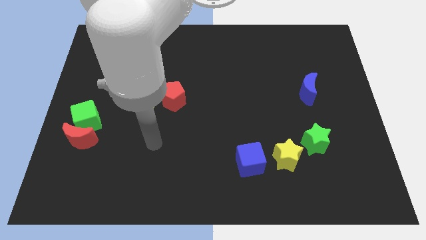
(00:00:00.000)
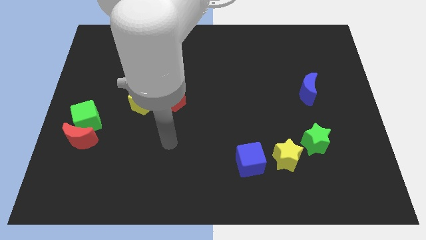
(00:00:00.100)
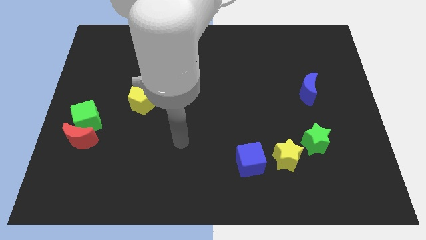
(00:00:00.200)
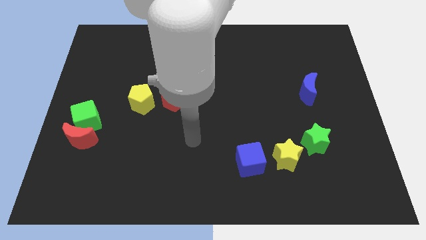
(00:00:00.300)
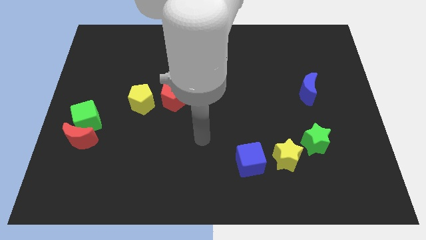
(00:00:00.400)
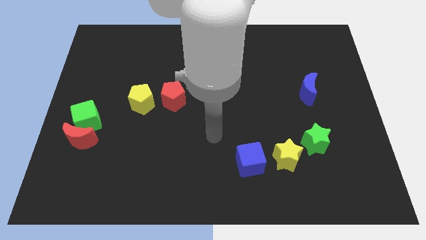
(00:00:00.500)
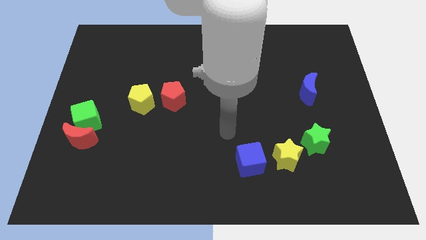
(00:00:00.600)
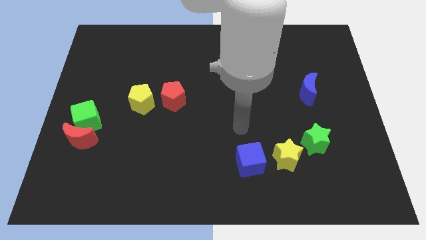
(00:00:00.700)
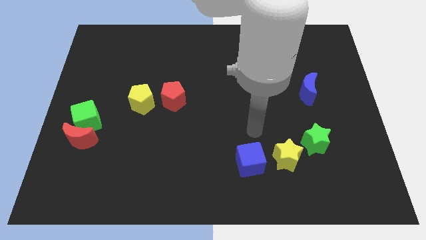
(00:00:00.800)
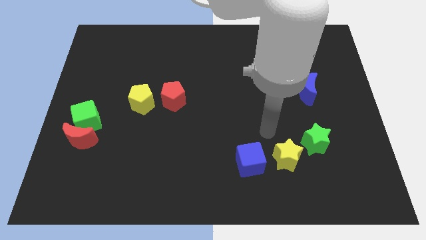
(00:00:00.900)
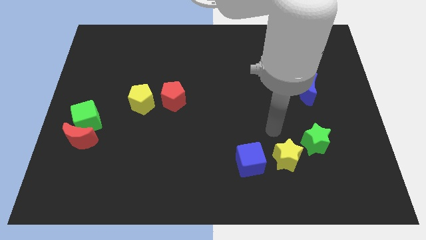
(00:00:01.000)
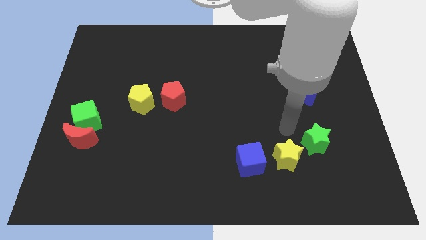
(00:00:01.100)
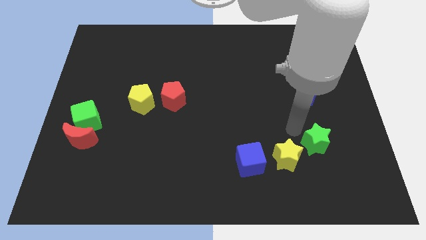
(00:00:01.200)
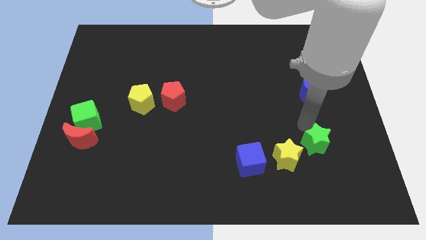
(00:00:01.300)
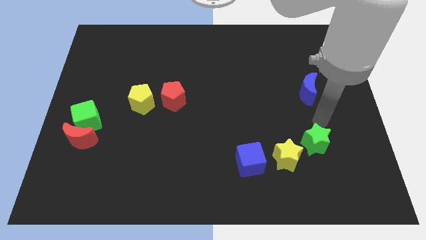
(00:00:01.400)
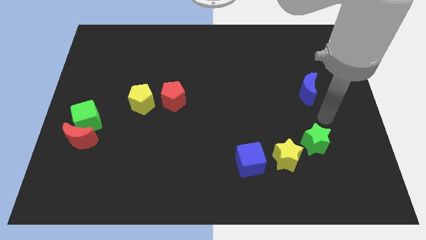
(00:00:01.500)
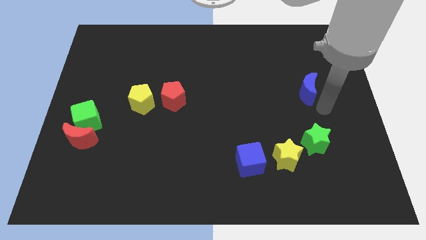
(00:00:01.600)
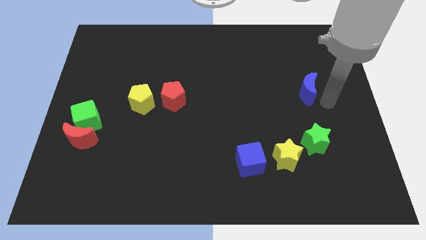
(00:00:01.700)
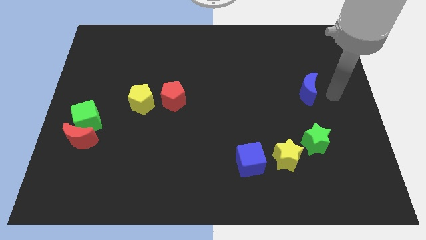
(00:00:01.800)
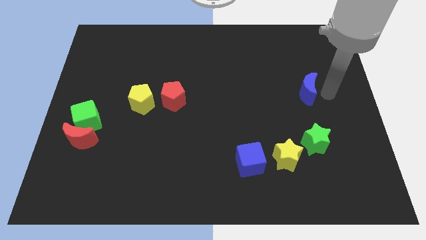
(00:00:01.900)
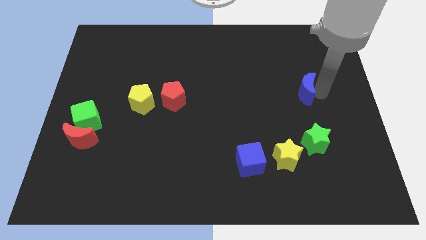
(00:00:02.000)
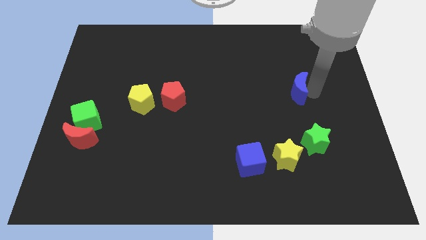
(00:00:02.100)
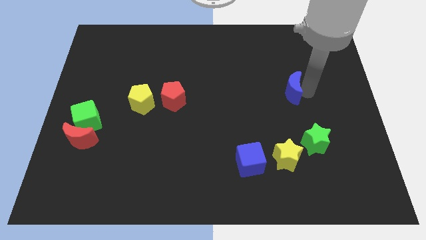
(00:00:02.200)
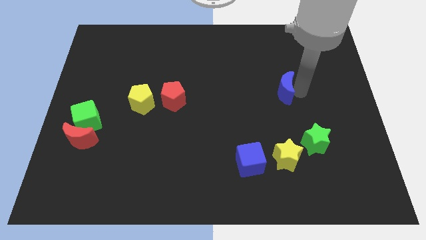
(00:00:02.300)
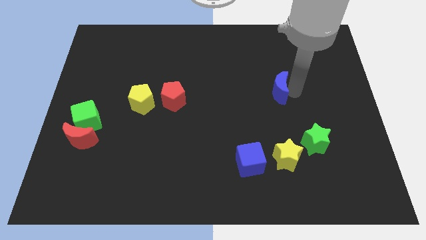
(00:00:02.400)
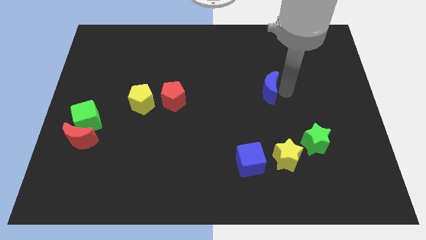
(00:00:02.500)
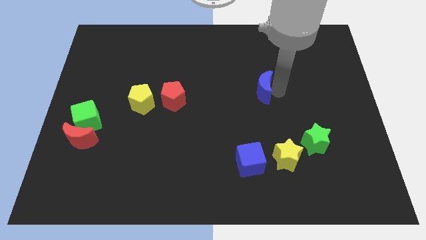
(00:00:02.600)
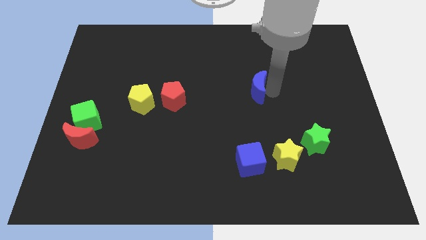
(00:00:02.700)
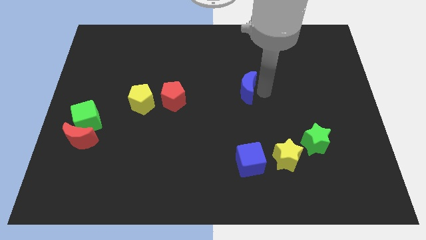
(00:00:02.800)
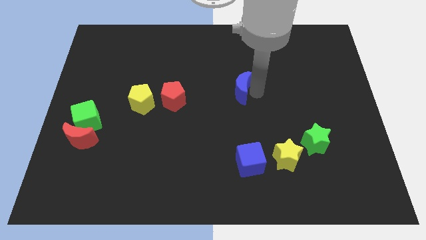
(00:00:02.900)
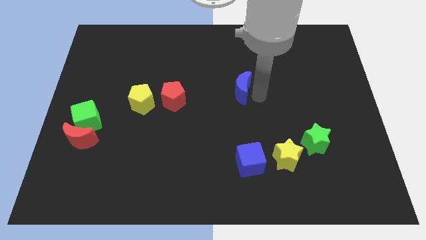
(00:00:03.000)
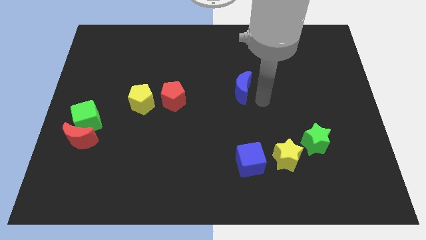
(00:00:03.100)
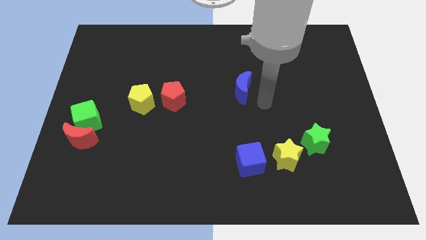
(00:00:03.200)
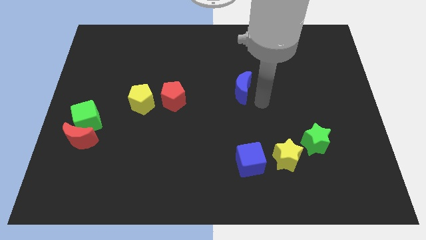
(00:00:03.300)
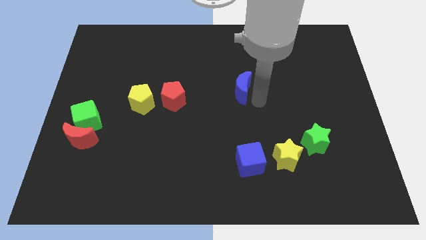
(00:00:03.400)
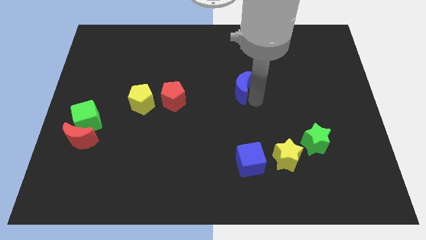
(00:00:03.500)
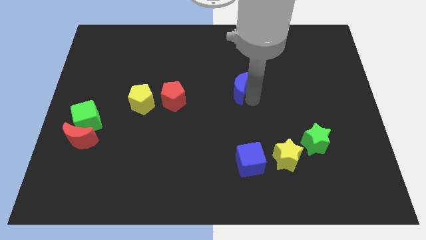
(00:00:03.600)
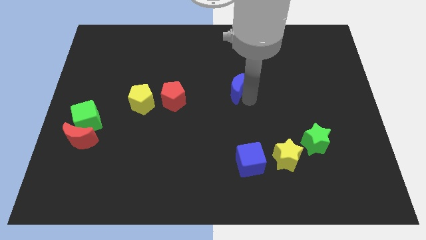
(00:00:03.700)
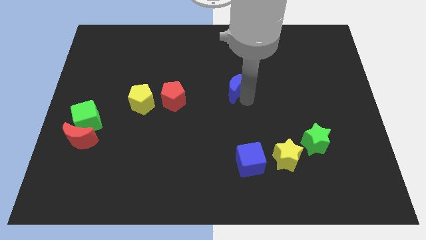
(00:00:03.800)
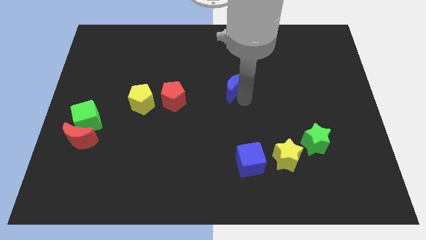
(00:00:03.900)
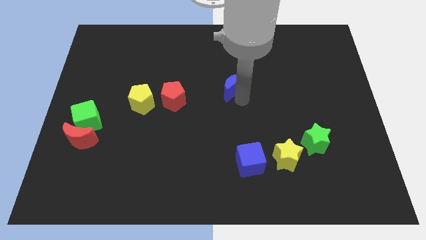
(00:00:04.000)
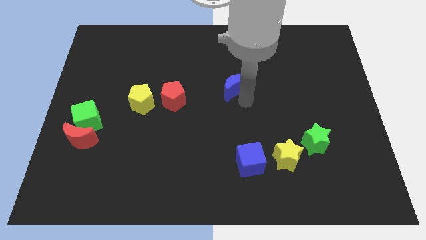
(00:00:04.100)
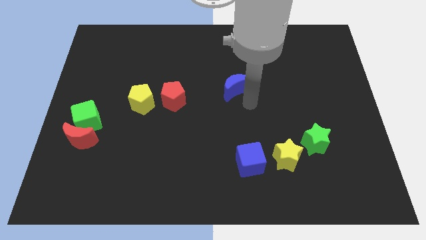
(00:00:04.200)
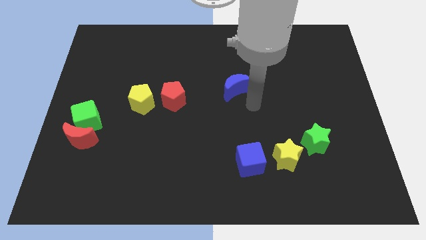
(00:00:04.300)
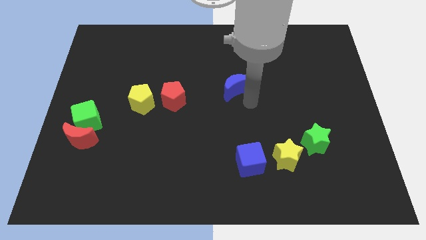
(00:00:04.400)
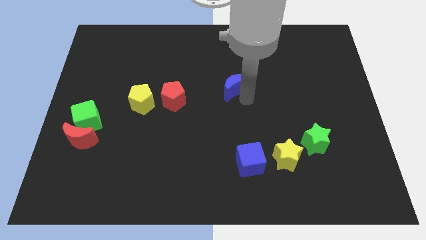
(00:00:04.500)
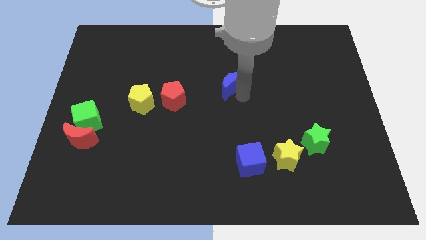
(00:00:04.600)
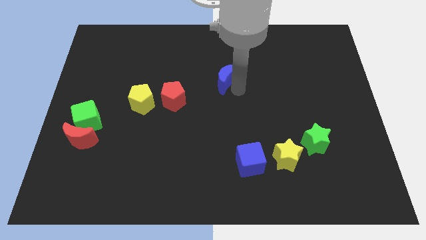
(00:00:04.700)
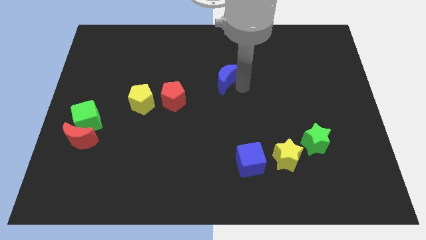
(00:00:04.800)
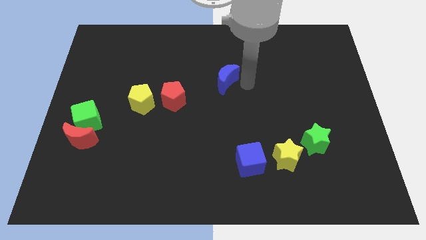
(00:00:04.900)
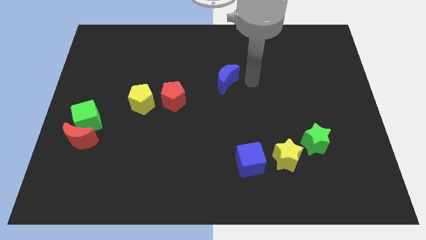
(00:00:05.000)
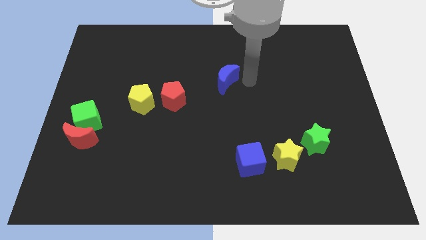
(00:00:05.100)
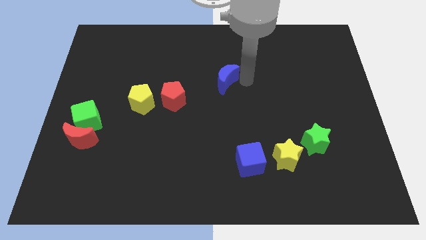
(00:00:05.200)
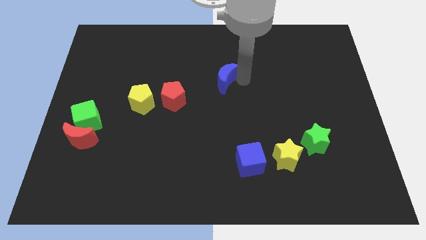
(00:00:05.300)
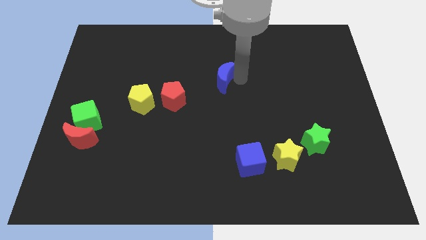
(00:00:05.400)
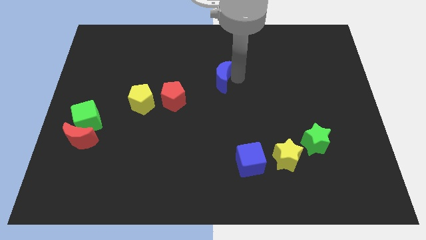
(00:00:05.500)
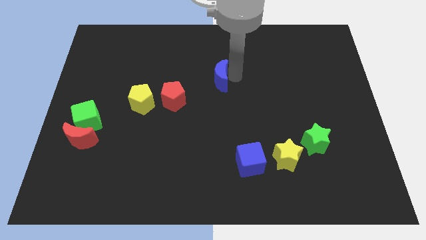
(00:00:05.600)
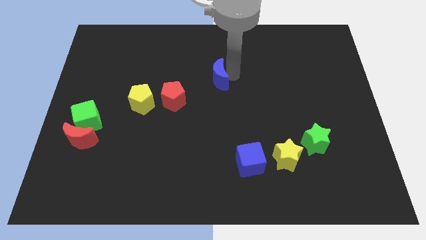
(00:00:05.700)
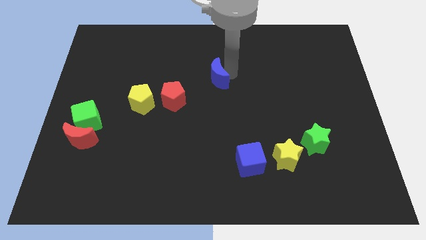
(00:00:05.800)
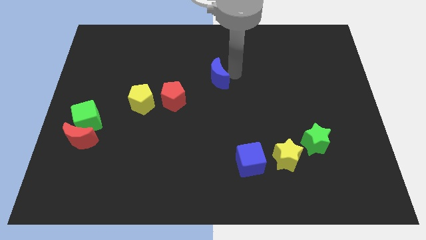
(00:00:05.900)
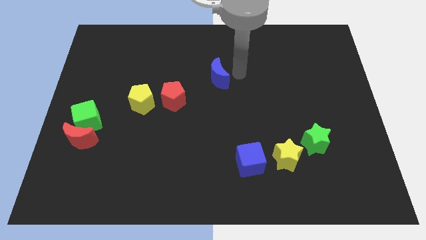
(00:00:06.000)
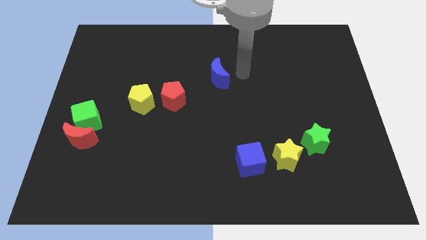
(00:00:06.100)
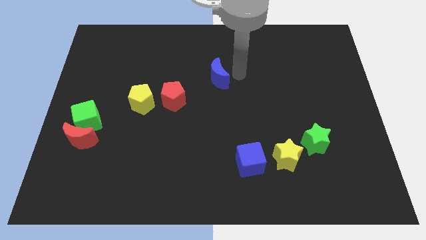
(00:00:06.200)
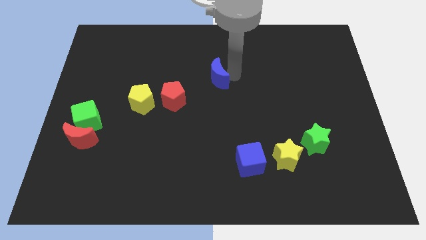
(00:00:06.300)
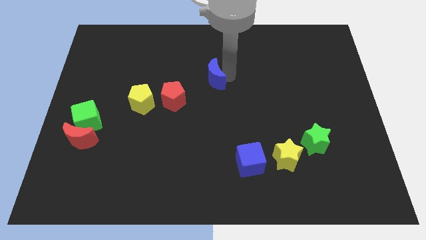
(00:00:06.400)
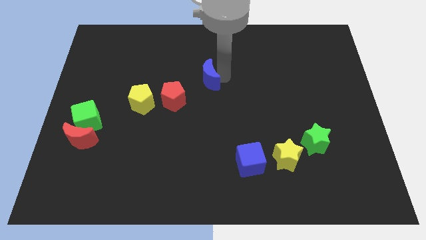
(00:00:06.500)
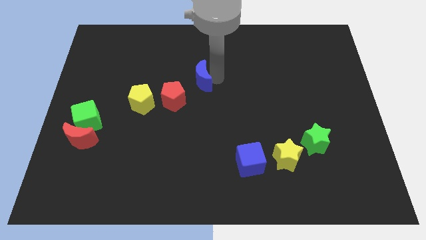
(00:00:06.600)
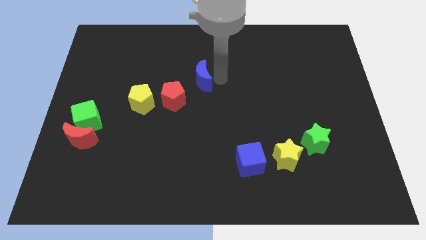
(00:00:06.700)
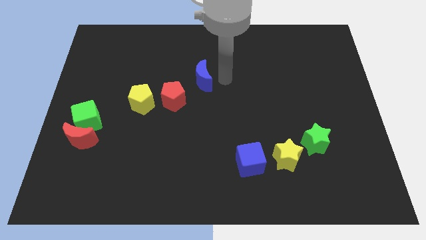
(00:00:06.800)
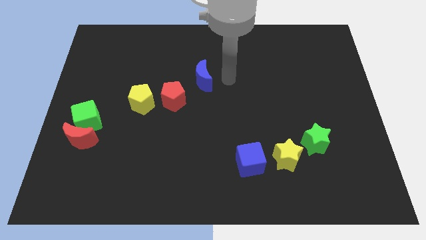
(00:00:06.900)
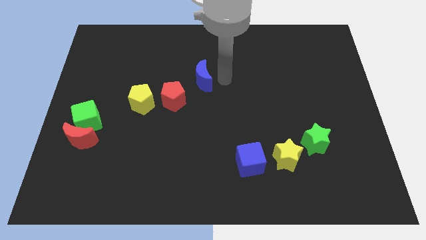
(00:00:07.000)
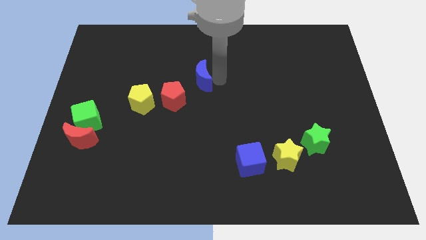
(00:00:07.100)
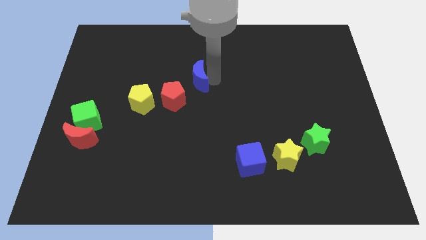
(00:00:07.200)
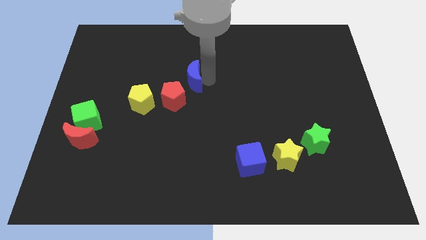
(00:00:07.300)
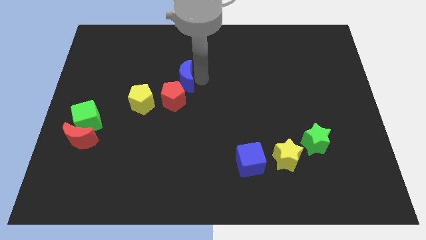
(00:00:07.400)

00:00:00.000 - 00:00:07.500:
move the blue moon to the top right of the yellow pentagon
